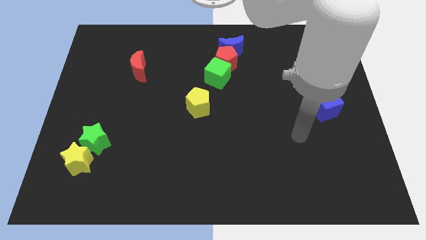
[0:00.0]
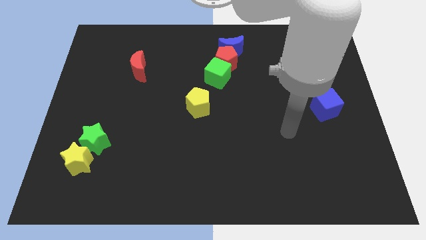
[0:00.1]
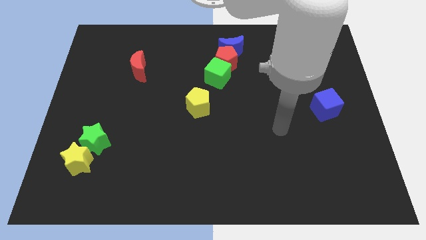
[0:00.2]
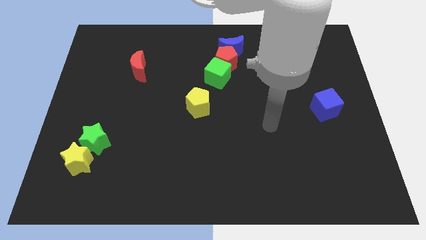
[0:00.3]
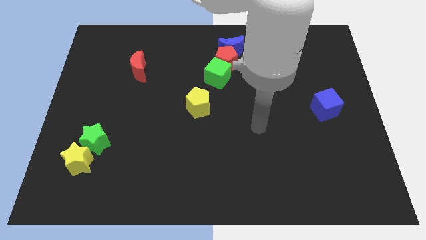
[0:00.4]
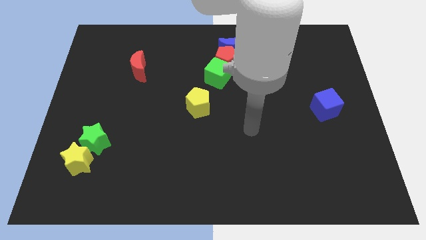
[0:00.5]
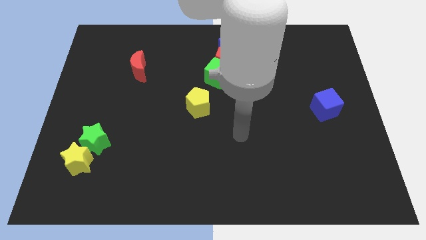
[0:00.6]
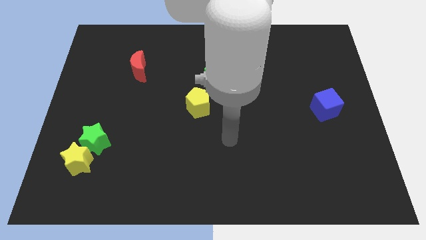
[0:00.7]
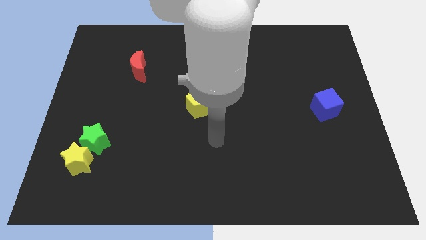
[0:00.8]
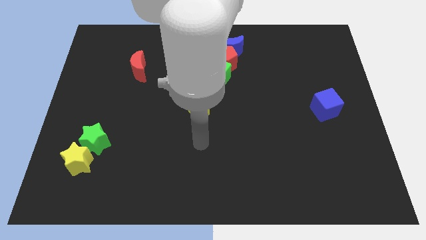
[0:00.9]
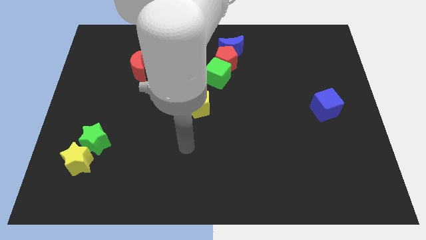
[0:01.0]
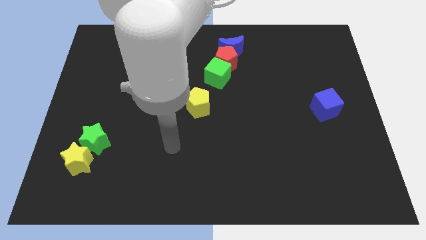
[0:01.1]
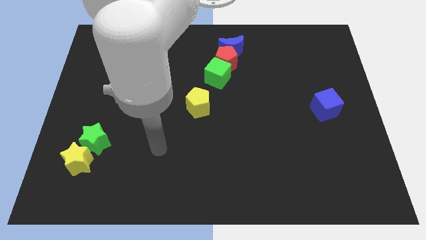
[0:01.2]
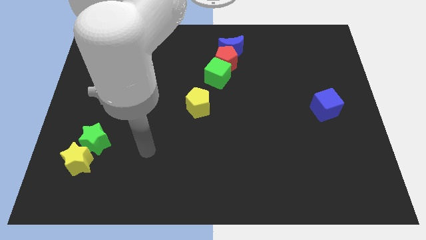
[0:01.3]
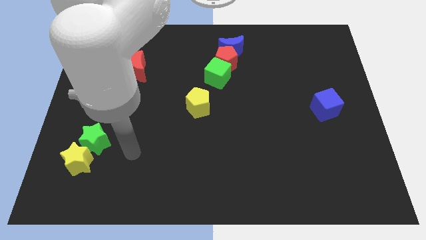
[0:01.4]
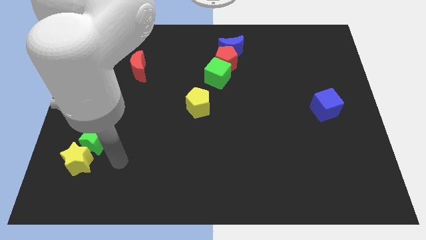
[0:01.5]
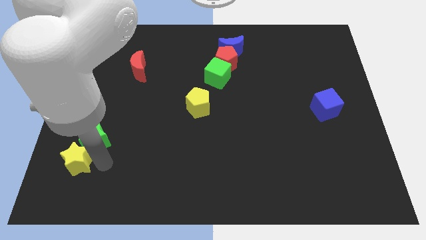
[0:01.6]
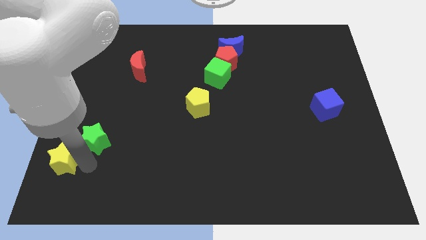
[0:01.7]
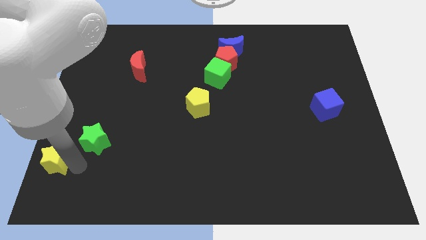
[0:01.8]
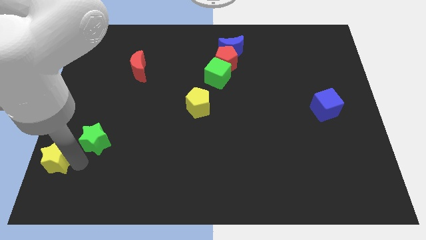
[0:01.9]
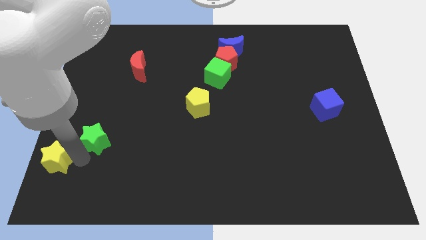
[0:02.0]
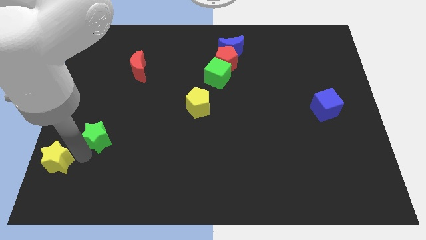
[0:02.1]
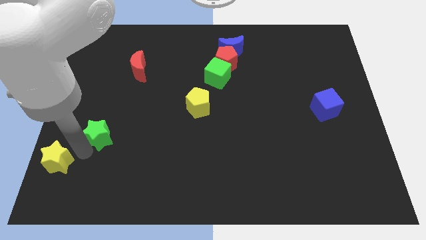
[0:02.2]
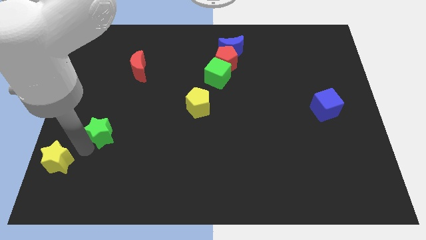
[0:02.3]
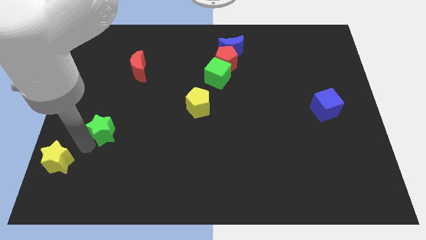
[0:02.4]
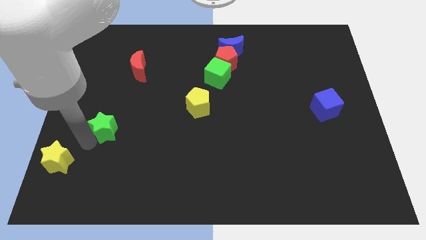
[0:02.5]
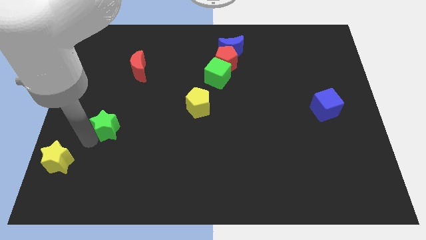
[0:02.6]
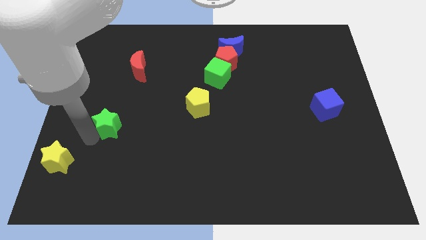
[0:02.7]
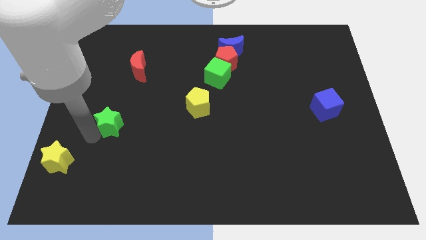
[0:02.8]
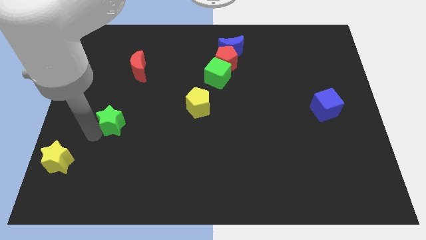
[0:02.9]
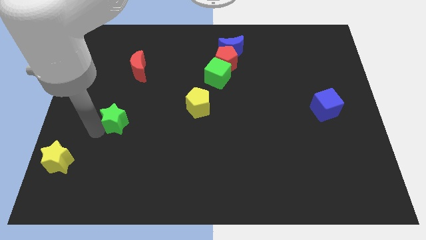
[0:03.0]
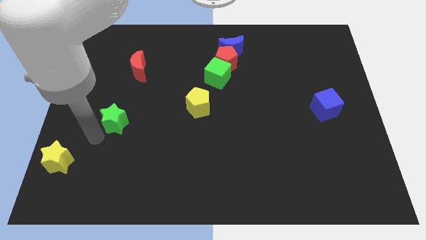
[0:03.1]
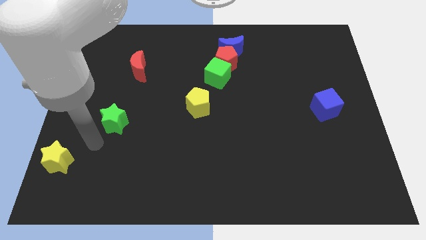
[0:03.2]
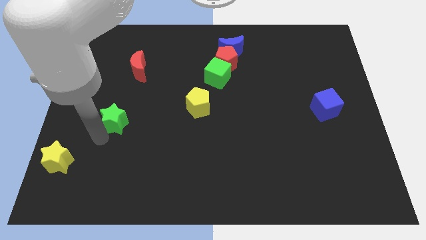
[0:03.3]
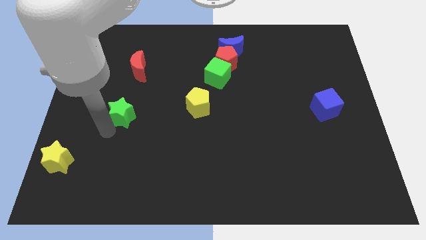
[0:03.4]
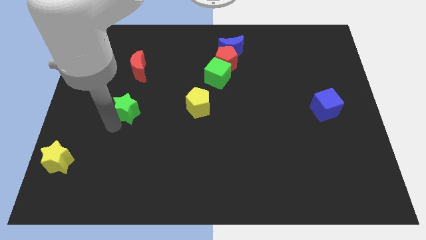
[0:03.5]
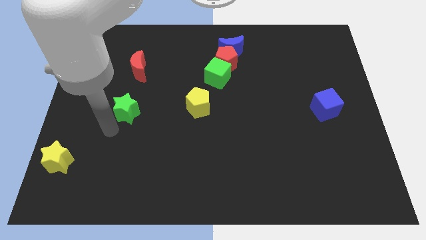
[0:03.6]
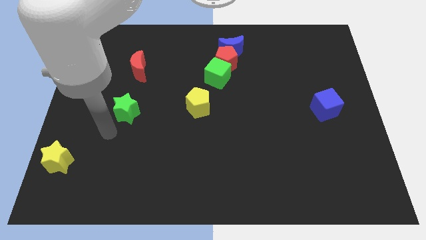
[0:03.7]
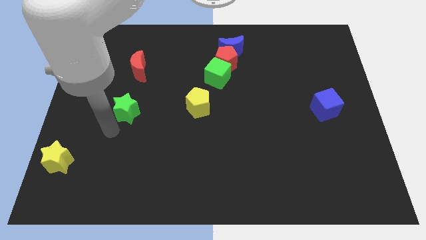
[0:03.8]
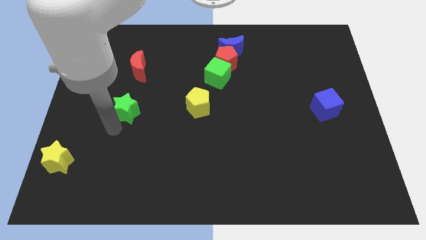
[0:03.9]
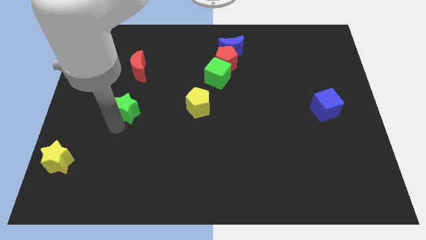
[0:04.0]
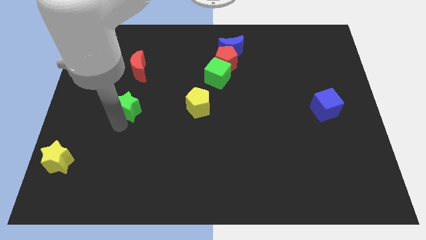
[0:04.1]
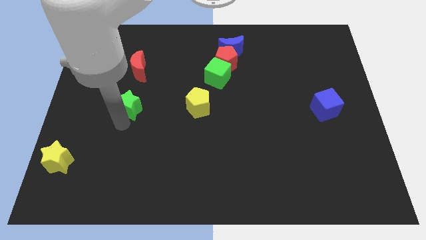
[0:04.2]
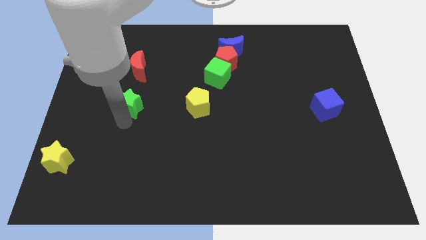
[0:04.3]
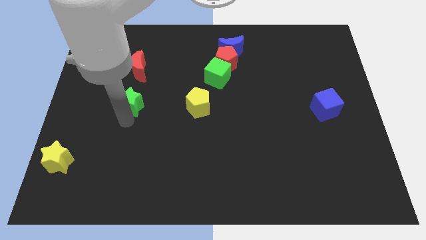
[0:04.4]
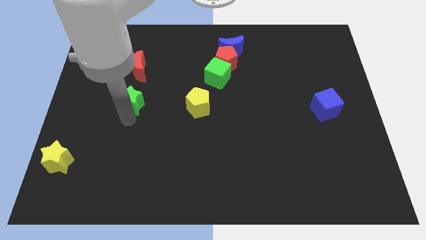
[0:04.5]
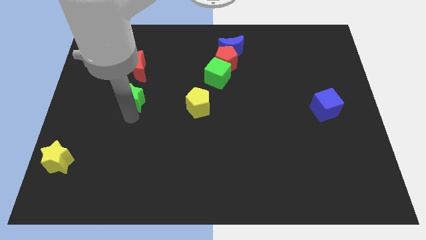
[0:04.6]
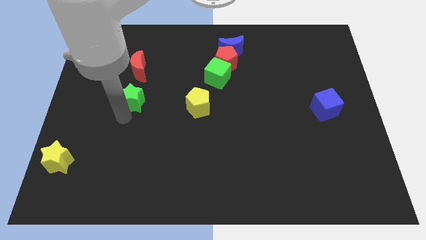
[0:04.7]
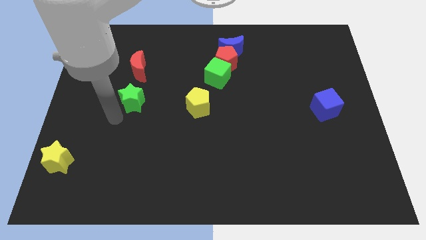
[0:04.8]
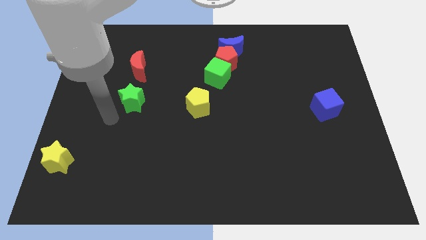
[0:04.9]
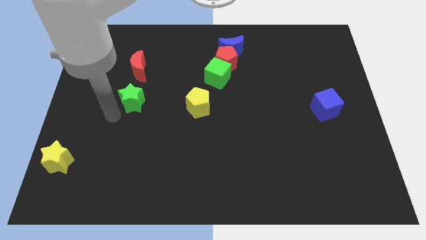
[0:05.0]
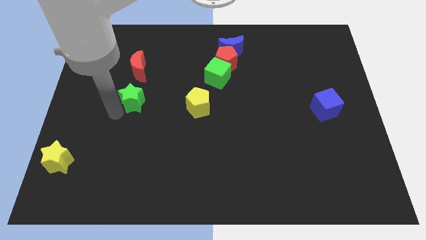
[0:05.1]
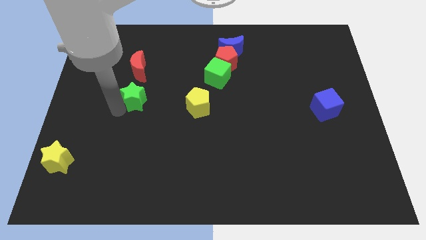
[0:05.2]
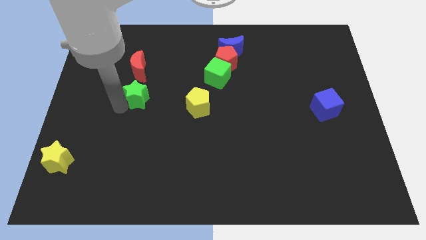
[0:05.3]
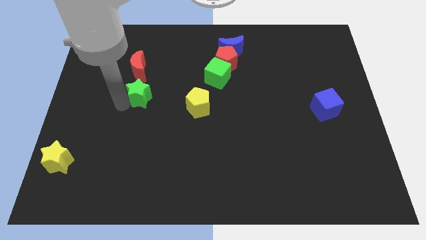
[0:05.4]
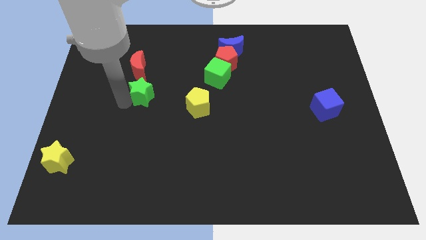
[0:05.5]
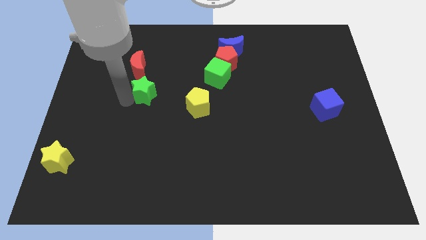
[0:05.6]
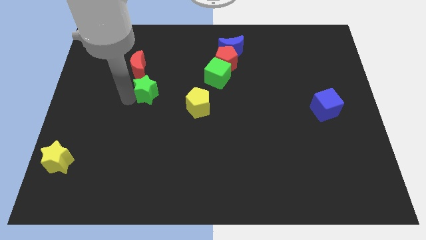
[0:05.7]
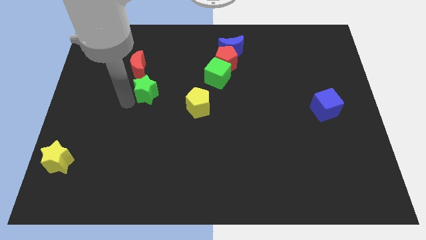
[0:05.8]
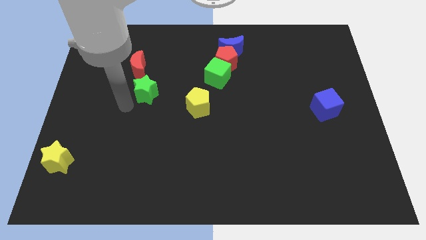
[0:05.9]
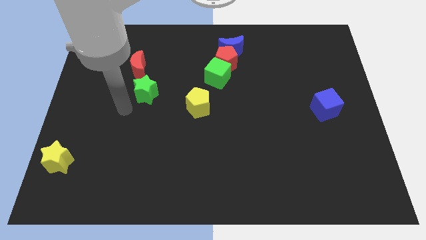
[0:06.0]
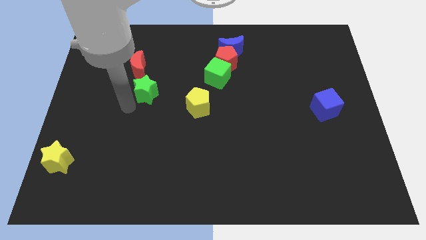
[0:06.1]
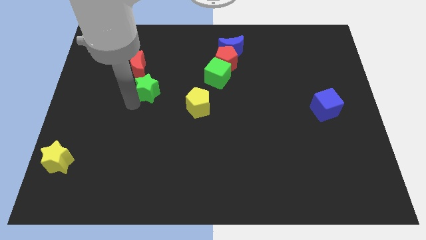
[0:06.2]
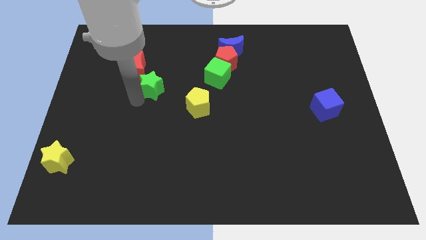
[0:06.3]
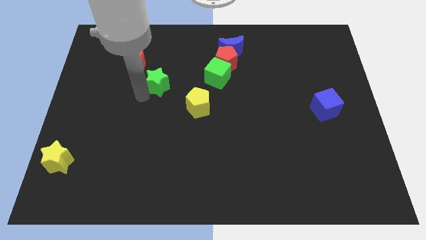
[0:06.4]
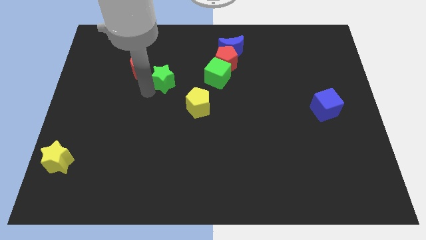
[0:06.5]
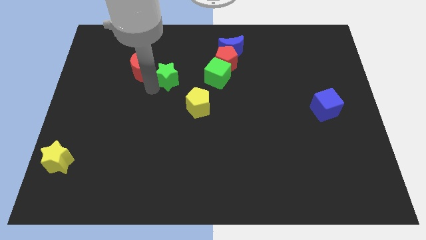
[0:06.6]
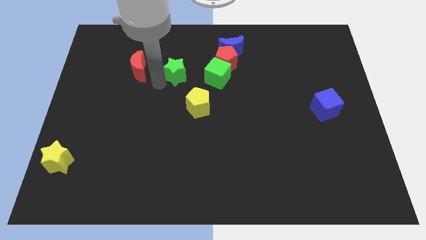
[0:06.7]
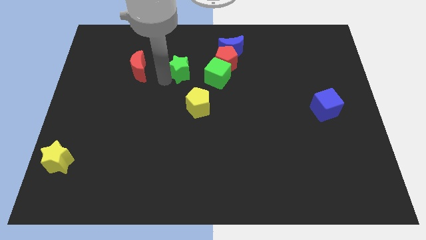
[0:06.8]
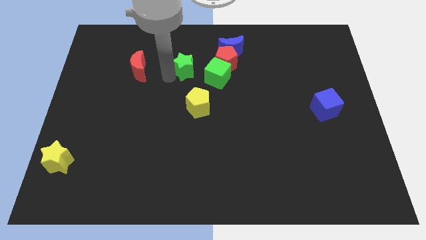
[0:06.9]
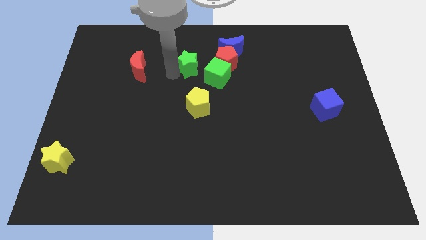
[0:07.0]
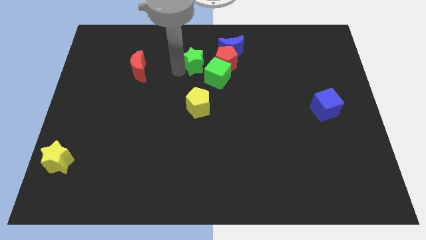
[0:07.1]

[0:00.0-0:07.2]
put the green star to the bottom left of the blue moon
